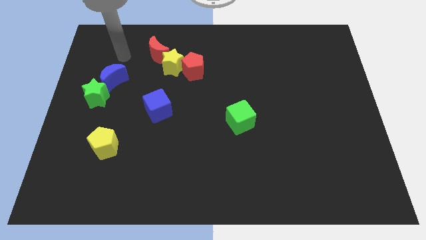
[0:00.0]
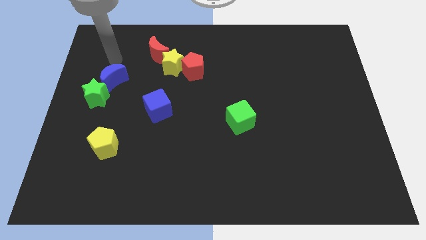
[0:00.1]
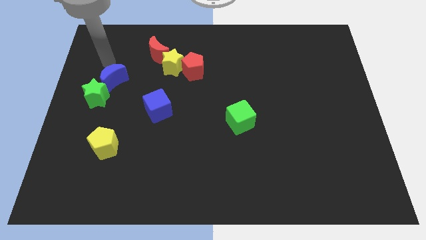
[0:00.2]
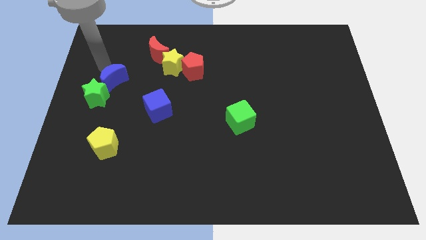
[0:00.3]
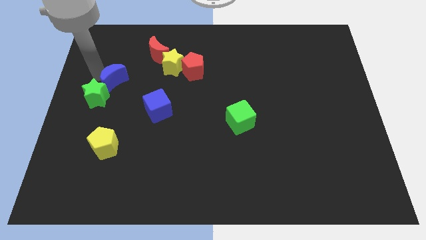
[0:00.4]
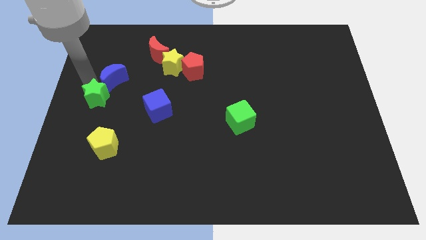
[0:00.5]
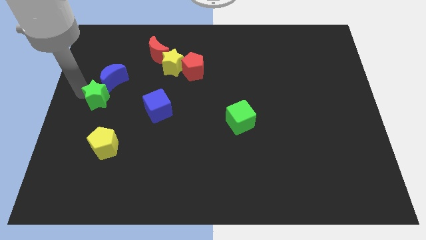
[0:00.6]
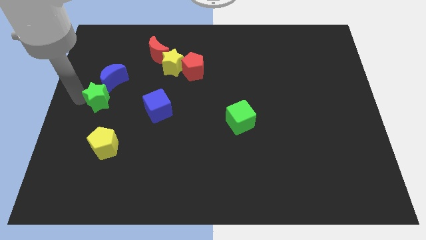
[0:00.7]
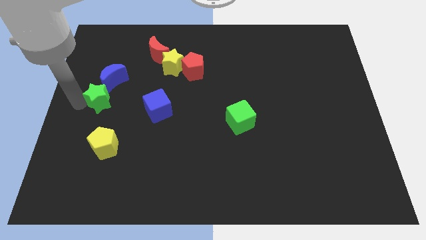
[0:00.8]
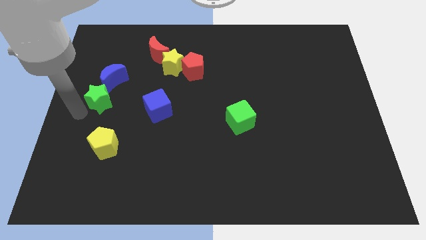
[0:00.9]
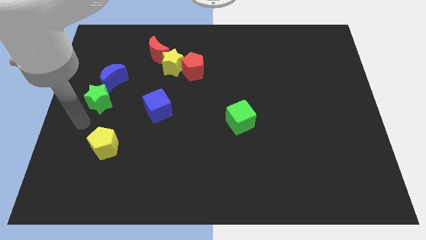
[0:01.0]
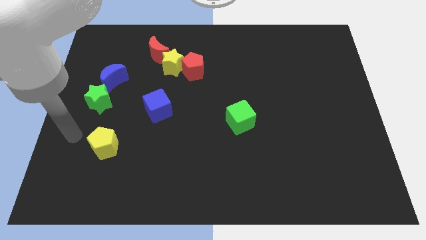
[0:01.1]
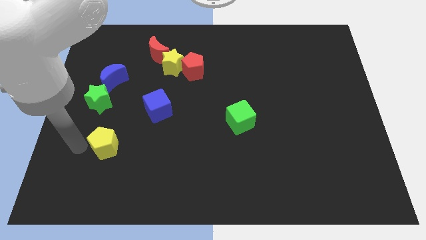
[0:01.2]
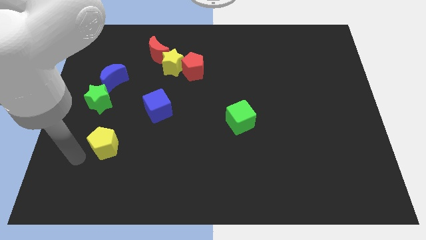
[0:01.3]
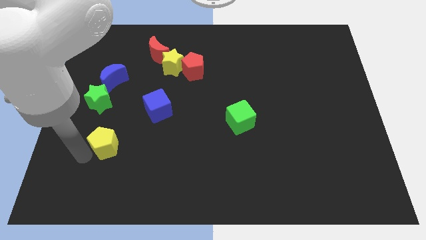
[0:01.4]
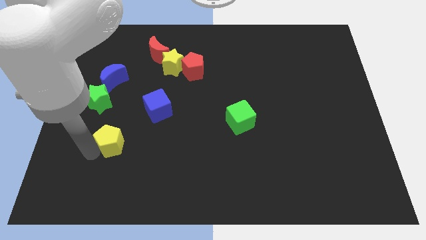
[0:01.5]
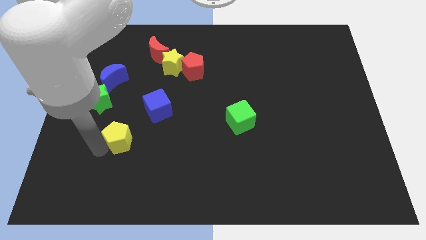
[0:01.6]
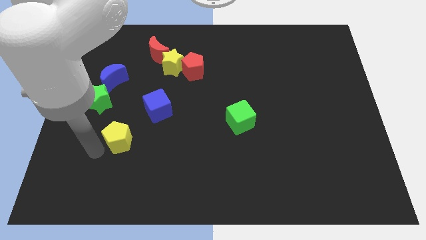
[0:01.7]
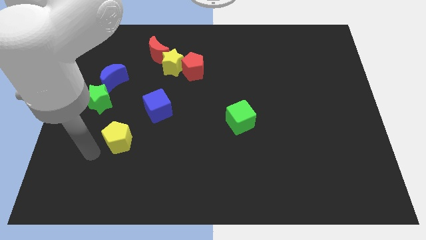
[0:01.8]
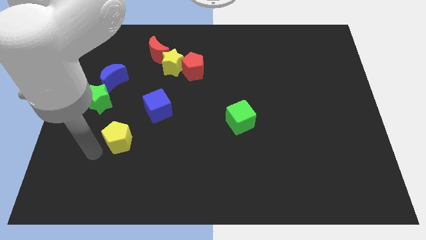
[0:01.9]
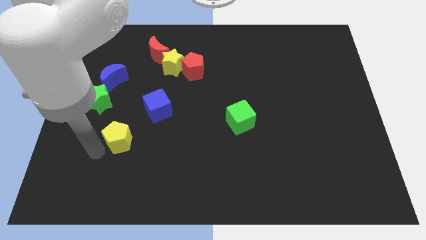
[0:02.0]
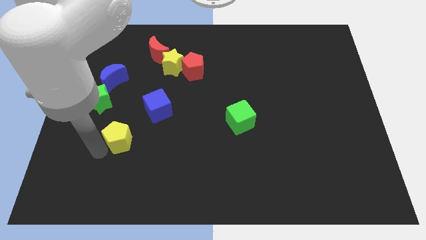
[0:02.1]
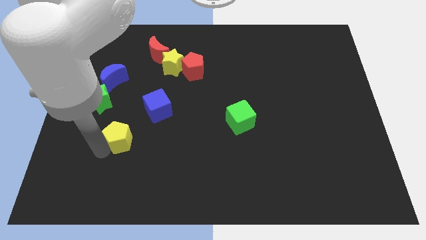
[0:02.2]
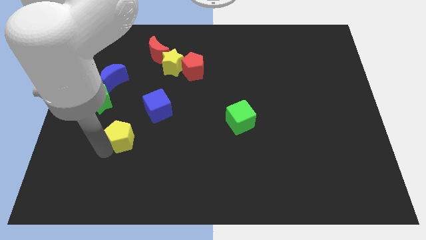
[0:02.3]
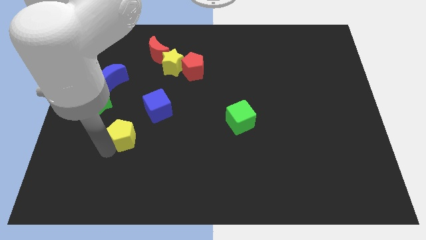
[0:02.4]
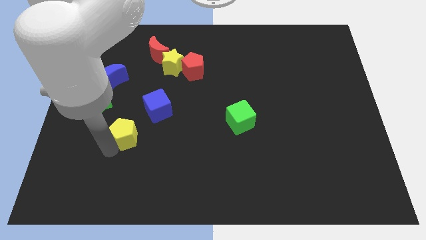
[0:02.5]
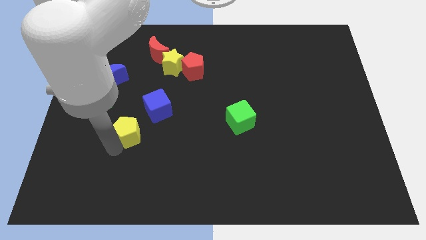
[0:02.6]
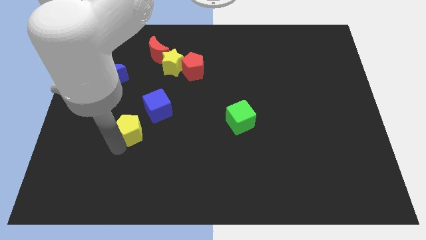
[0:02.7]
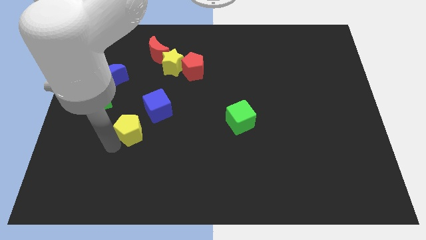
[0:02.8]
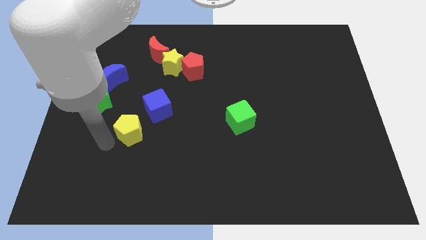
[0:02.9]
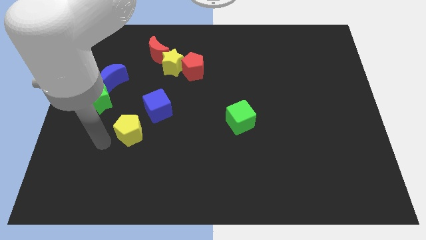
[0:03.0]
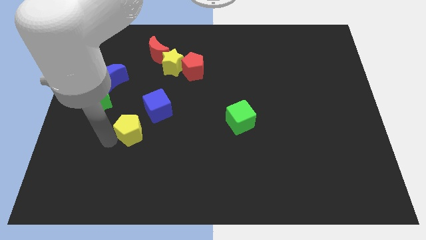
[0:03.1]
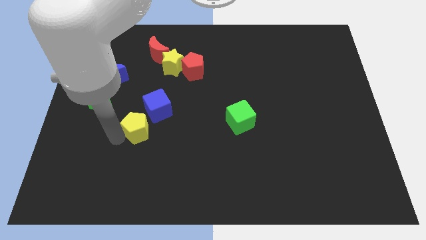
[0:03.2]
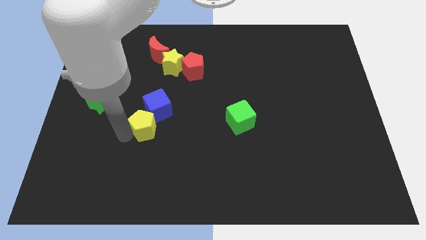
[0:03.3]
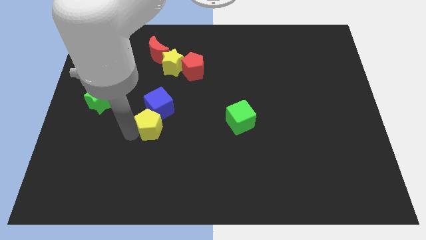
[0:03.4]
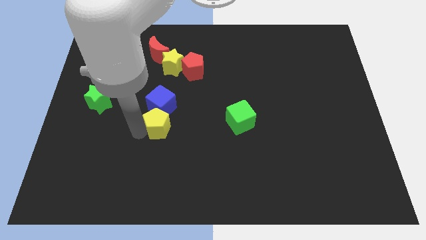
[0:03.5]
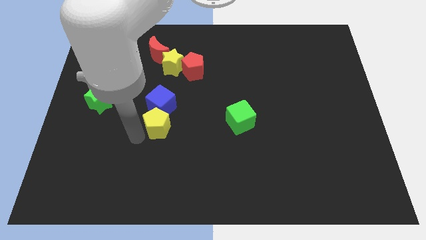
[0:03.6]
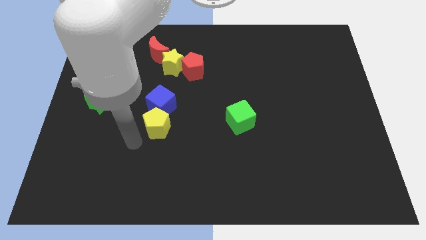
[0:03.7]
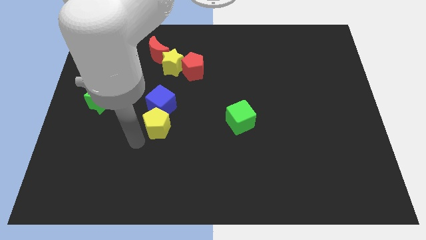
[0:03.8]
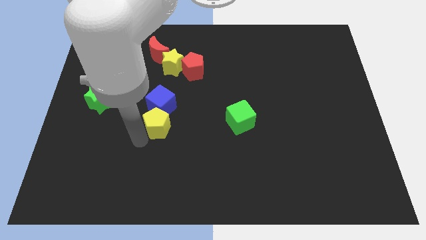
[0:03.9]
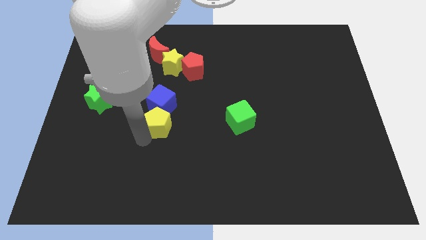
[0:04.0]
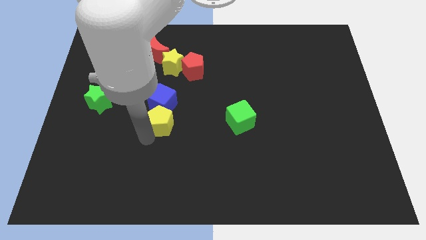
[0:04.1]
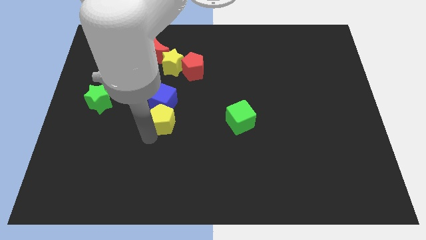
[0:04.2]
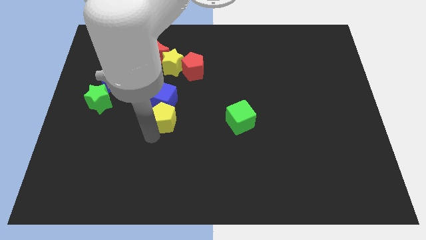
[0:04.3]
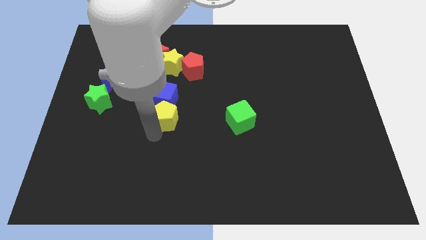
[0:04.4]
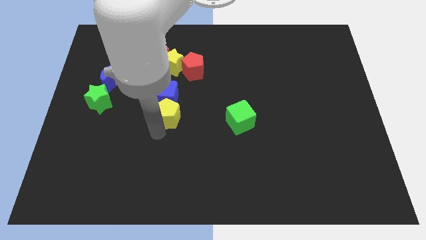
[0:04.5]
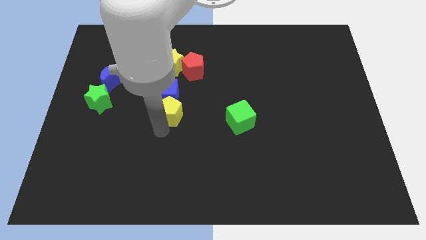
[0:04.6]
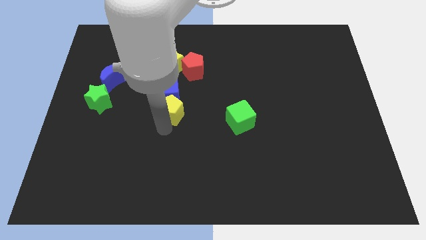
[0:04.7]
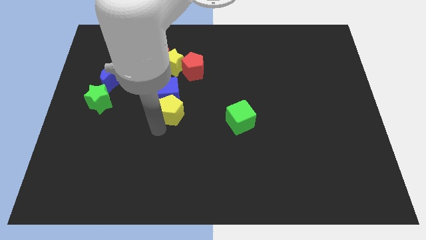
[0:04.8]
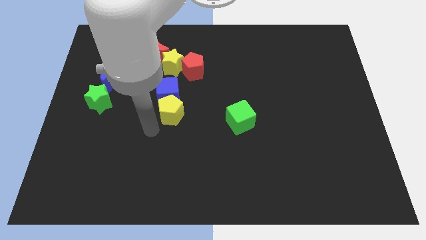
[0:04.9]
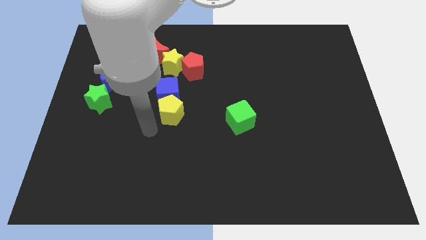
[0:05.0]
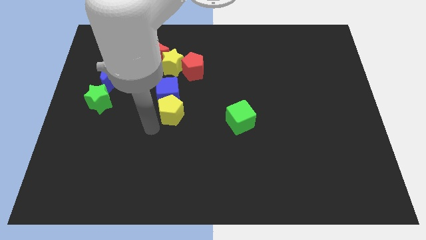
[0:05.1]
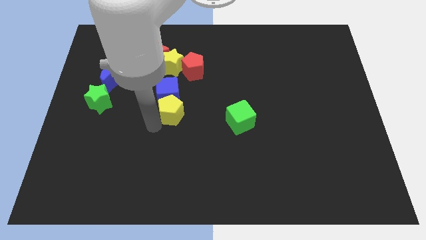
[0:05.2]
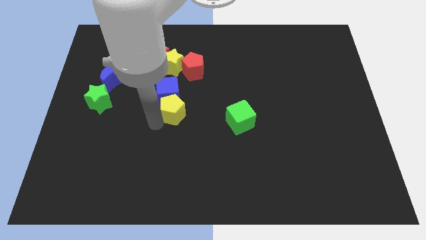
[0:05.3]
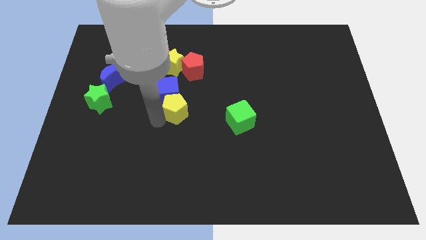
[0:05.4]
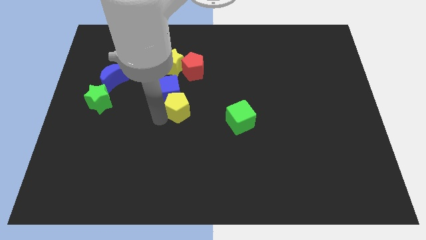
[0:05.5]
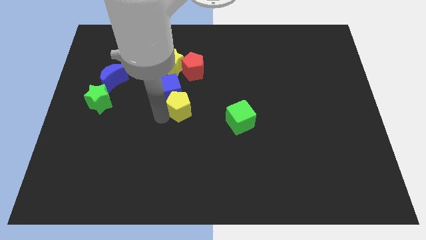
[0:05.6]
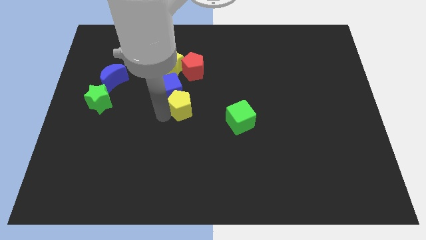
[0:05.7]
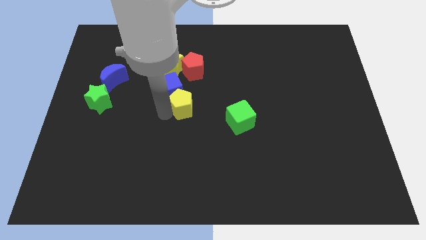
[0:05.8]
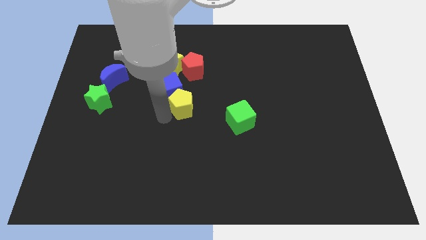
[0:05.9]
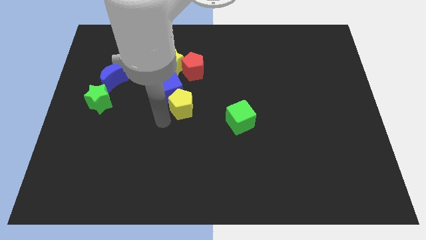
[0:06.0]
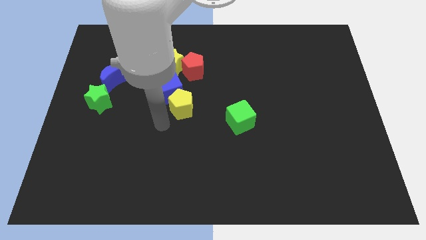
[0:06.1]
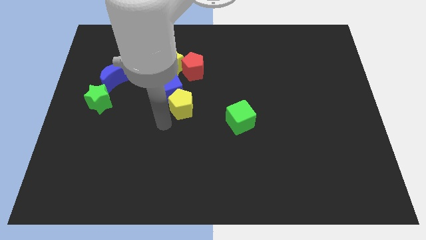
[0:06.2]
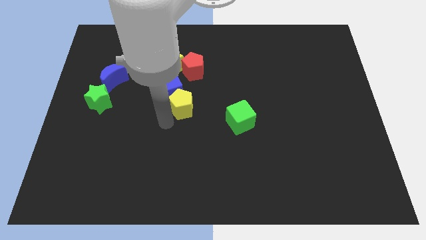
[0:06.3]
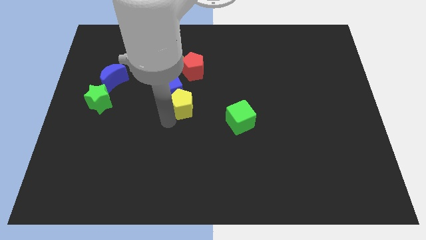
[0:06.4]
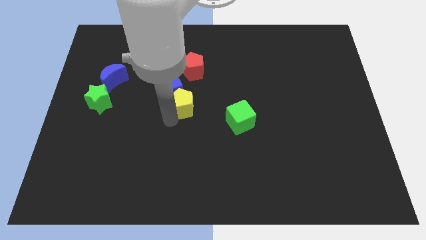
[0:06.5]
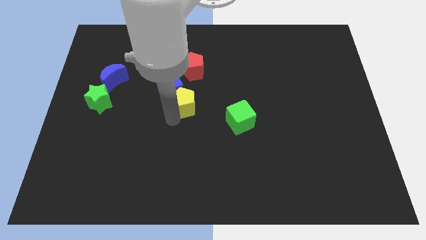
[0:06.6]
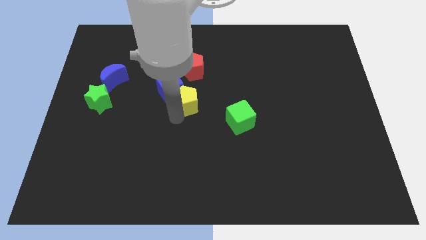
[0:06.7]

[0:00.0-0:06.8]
move the yellow pentagon up and to the right diagonally

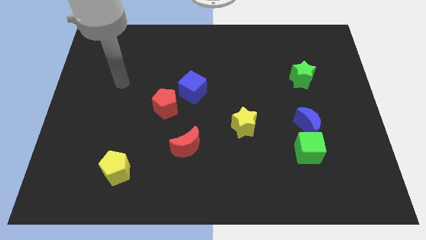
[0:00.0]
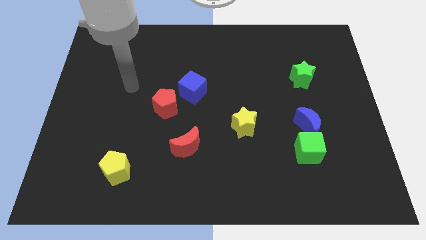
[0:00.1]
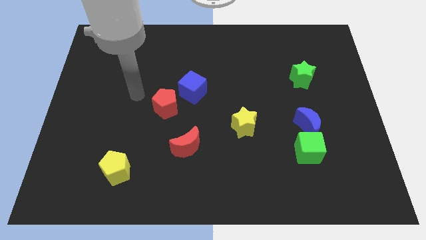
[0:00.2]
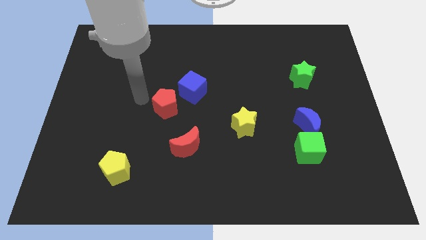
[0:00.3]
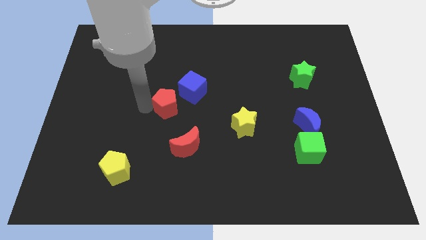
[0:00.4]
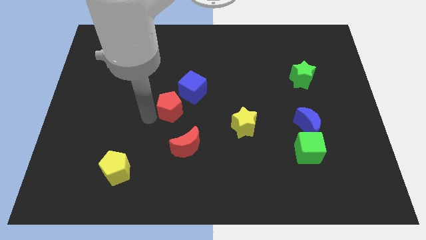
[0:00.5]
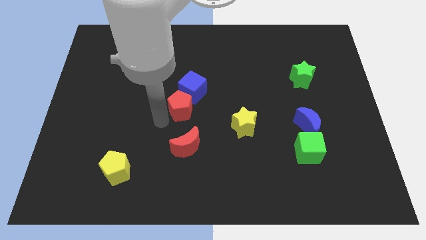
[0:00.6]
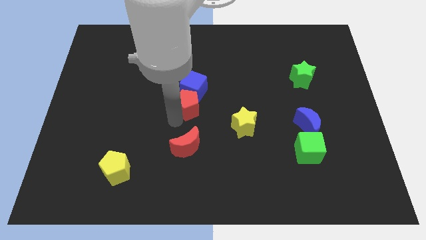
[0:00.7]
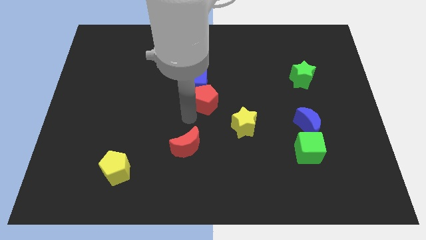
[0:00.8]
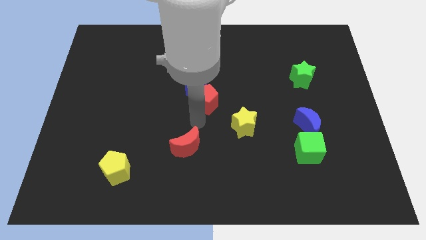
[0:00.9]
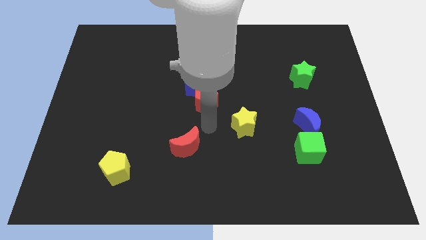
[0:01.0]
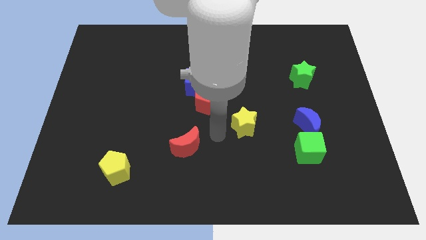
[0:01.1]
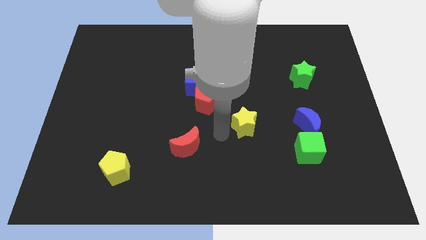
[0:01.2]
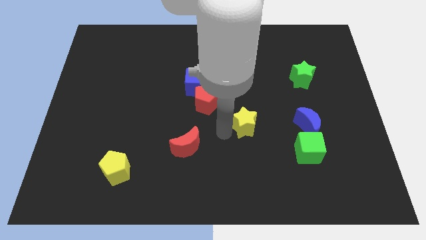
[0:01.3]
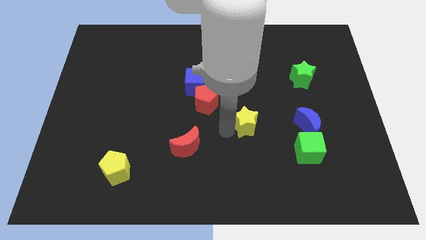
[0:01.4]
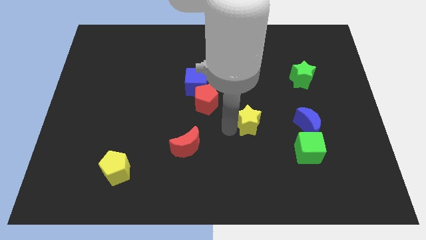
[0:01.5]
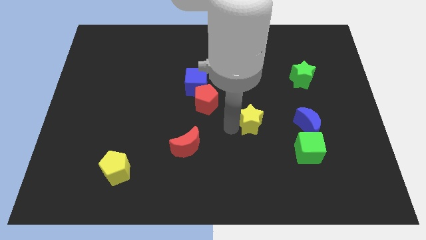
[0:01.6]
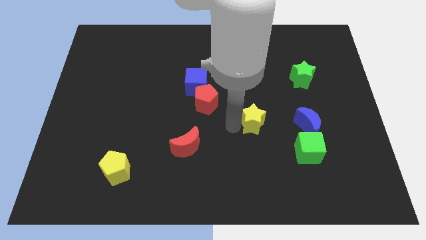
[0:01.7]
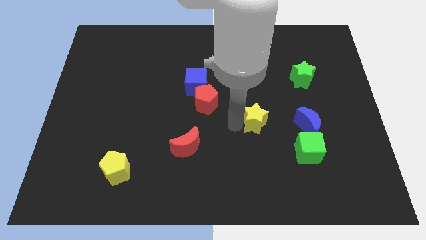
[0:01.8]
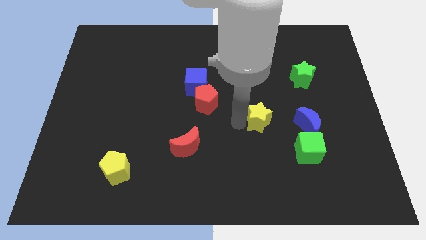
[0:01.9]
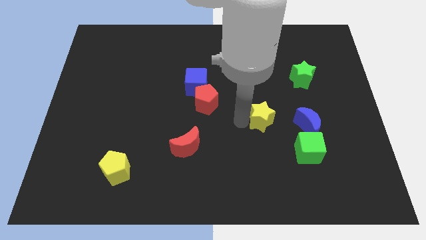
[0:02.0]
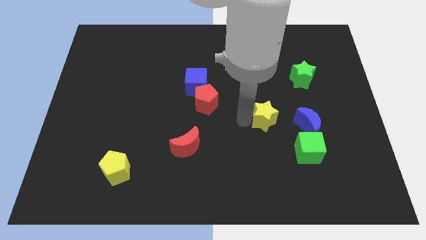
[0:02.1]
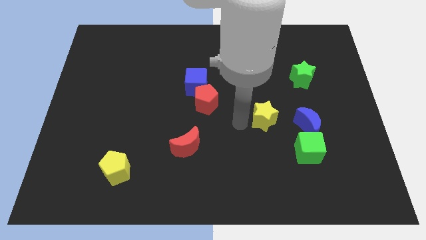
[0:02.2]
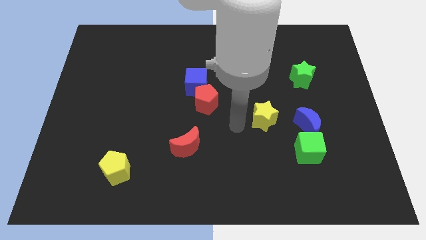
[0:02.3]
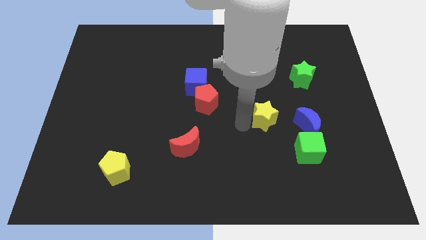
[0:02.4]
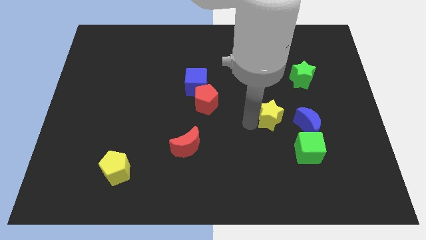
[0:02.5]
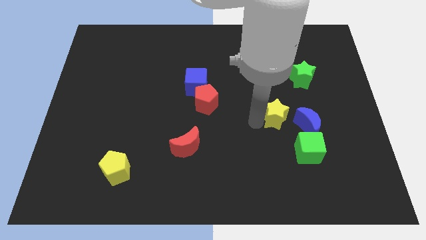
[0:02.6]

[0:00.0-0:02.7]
slightly move the yellow star right
